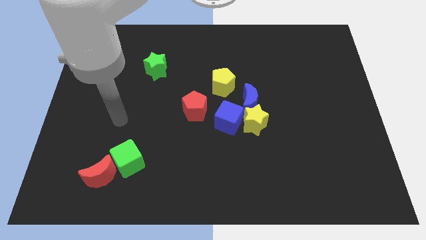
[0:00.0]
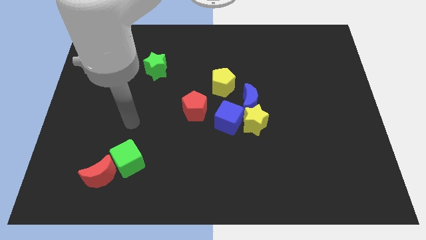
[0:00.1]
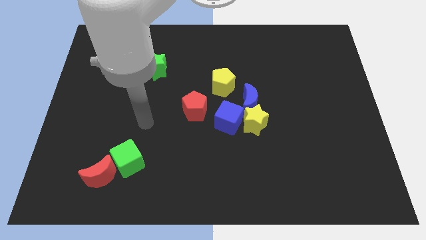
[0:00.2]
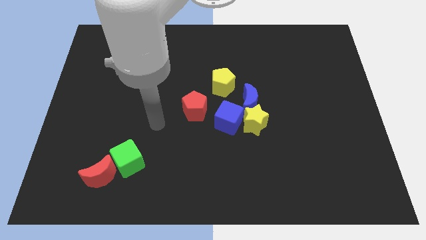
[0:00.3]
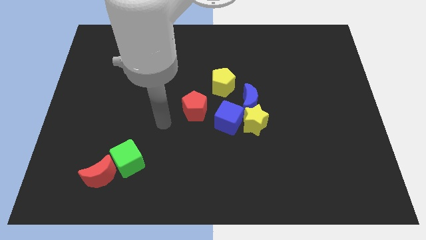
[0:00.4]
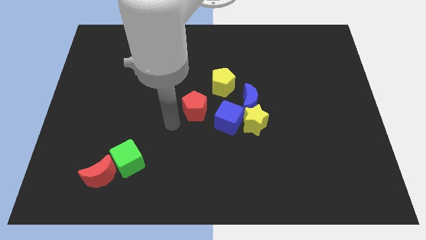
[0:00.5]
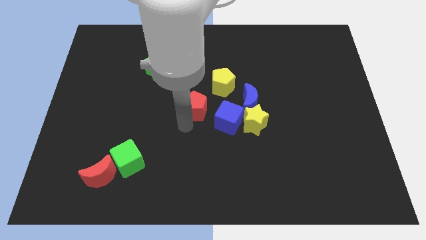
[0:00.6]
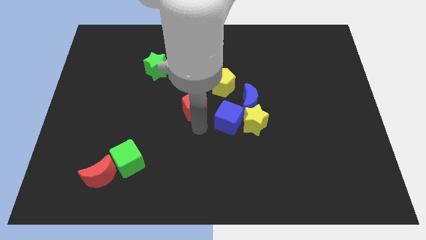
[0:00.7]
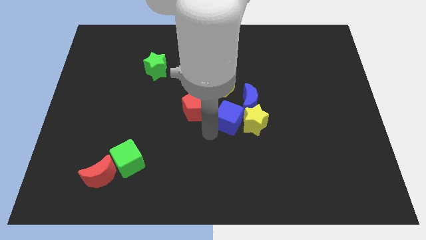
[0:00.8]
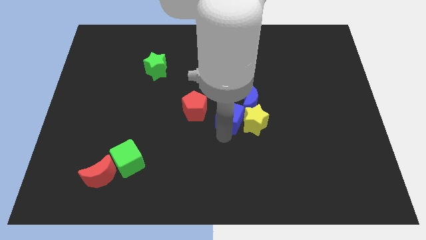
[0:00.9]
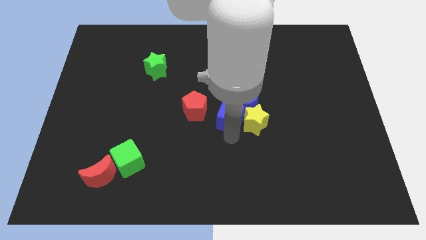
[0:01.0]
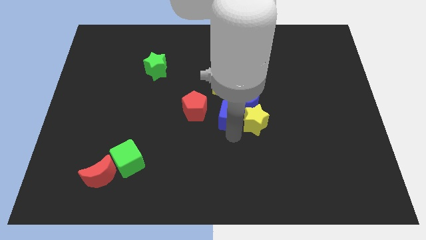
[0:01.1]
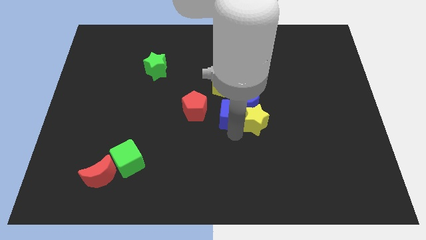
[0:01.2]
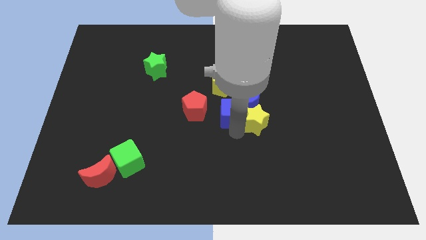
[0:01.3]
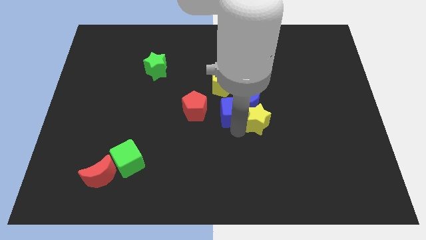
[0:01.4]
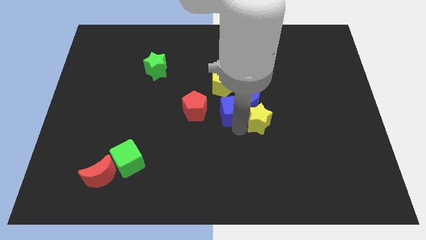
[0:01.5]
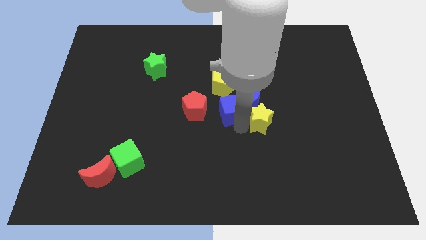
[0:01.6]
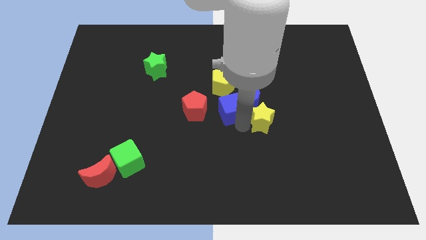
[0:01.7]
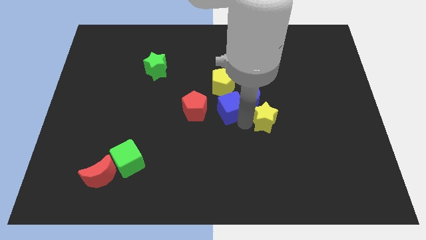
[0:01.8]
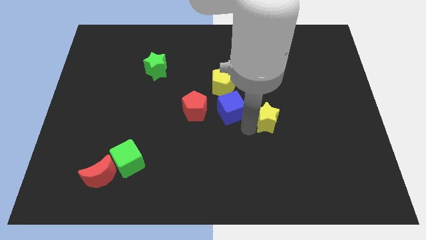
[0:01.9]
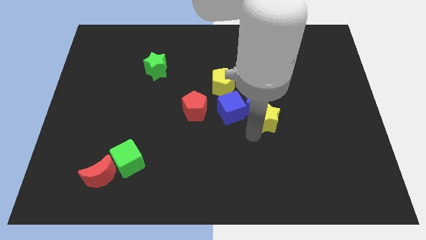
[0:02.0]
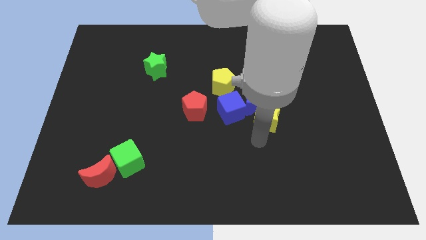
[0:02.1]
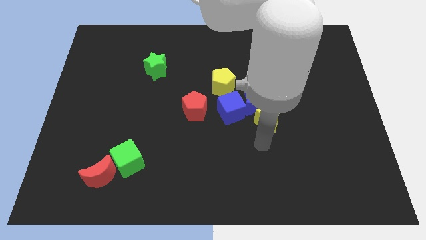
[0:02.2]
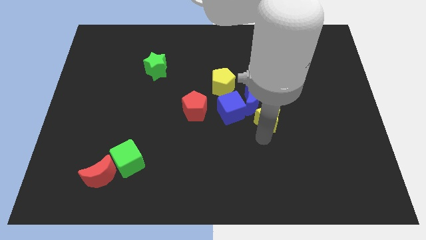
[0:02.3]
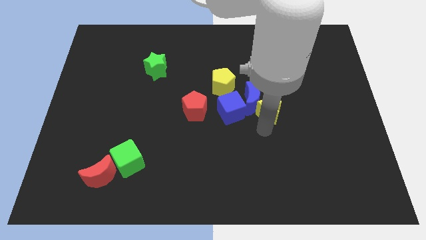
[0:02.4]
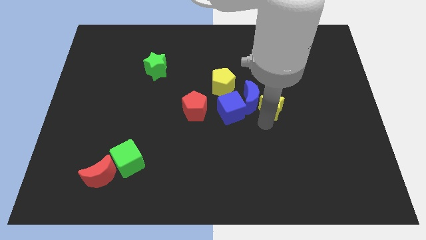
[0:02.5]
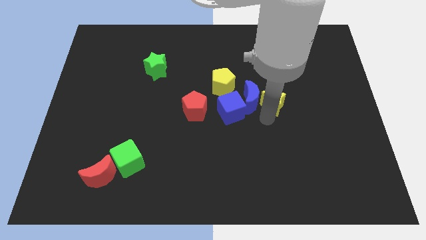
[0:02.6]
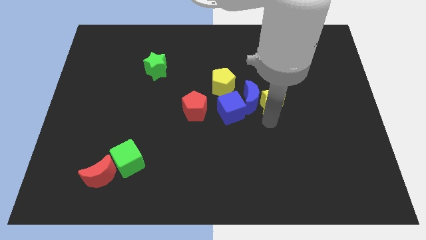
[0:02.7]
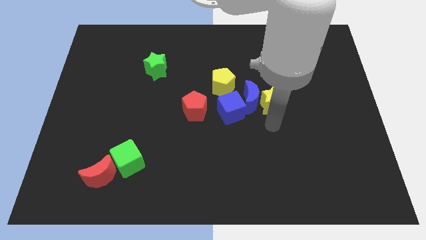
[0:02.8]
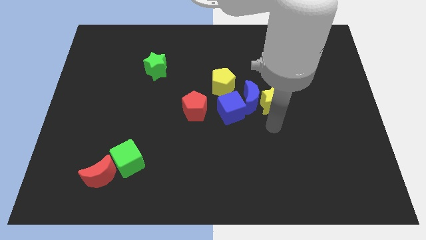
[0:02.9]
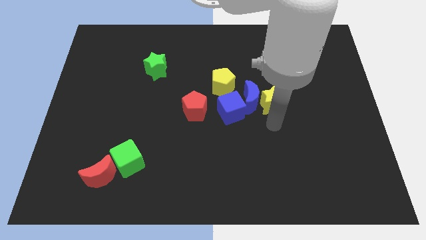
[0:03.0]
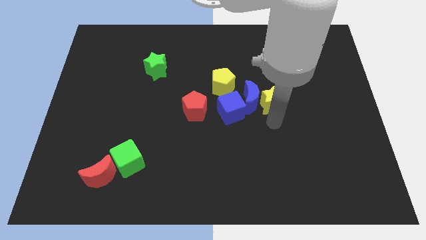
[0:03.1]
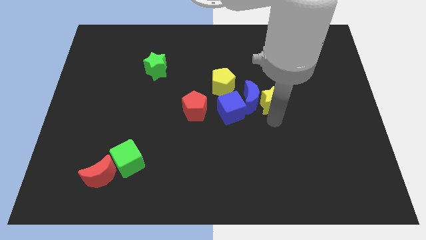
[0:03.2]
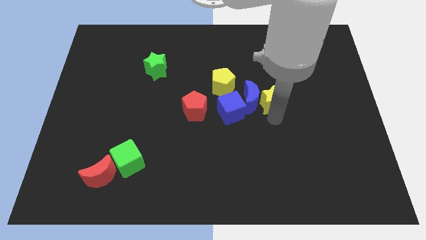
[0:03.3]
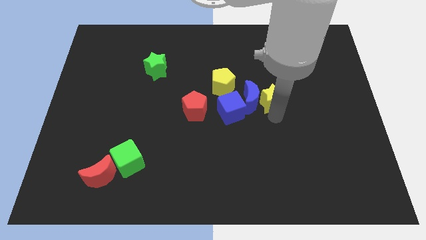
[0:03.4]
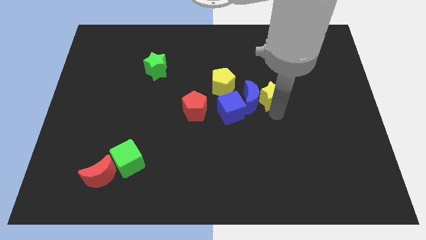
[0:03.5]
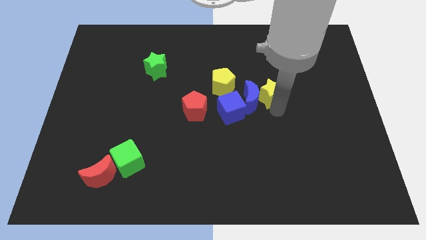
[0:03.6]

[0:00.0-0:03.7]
slightly move the yellow star upwards

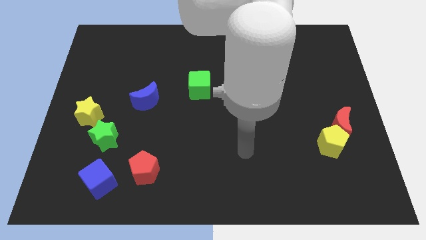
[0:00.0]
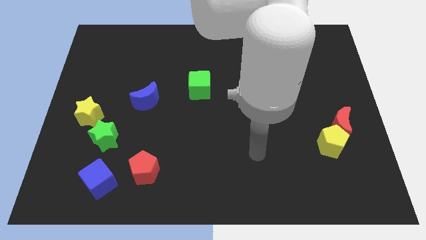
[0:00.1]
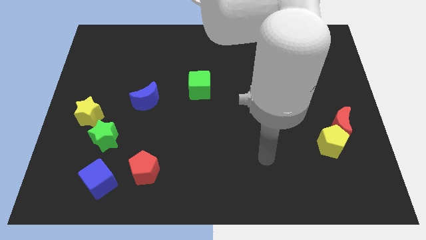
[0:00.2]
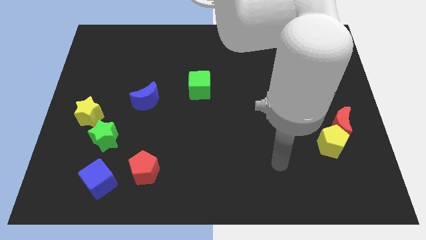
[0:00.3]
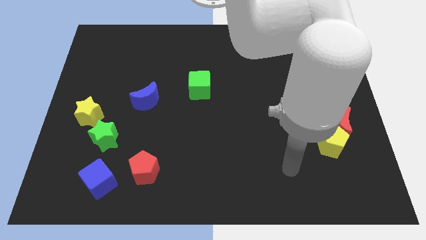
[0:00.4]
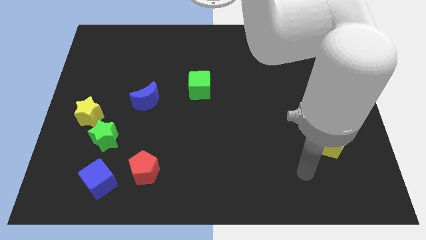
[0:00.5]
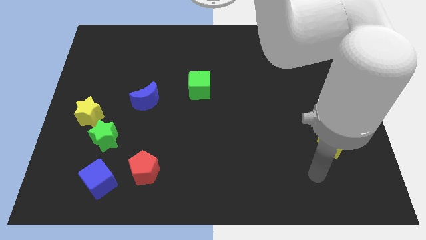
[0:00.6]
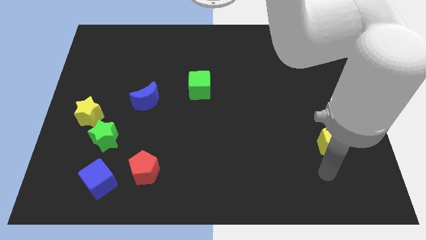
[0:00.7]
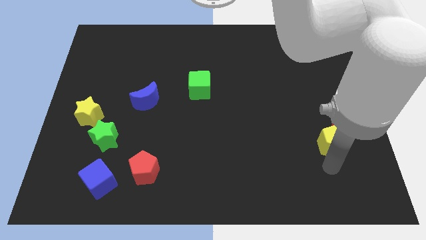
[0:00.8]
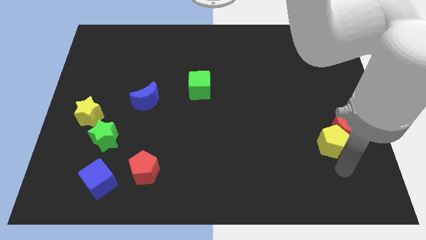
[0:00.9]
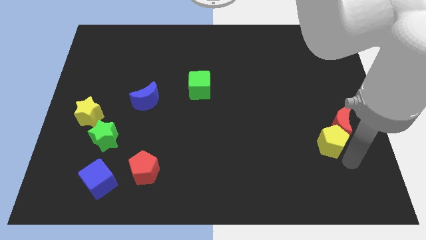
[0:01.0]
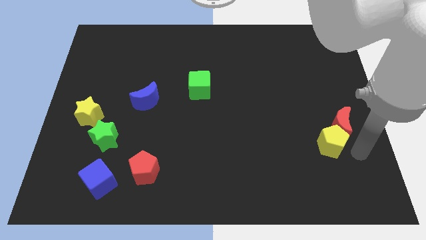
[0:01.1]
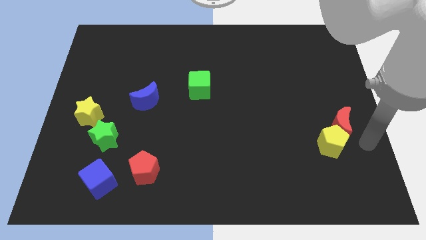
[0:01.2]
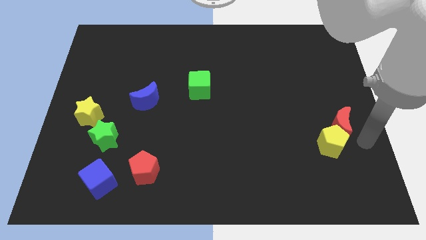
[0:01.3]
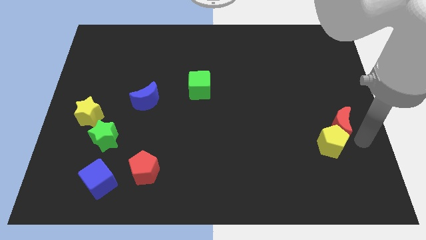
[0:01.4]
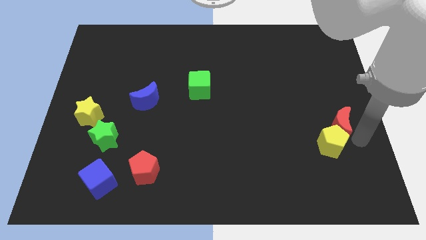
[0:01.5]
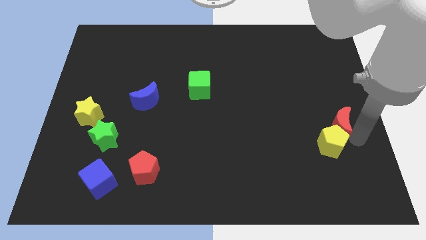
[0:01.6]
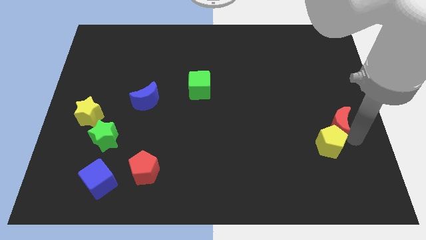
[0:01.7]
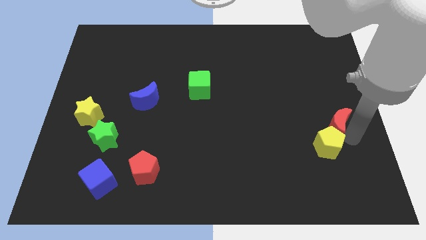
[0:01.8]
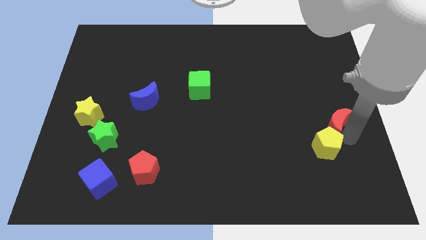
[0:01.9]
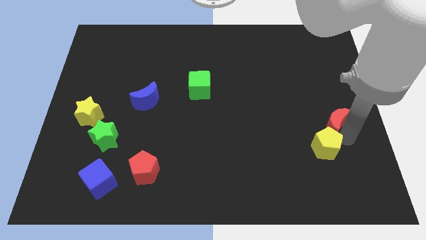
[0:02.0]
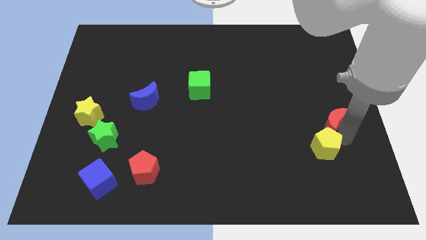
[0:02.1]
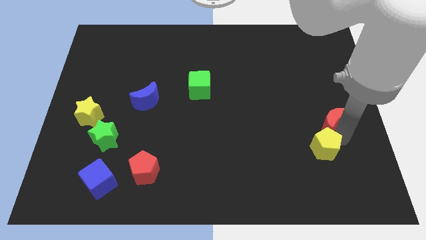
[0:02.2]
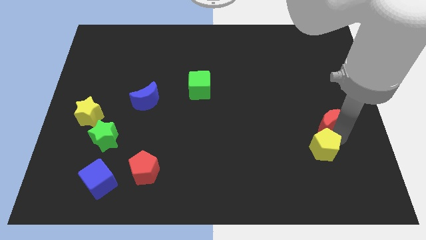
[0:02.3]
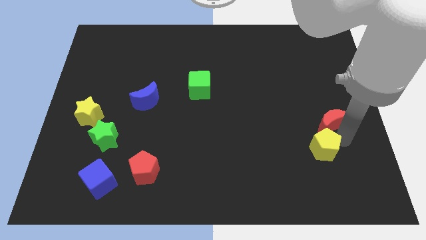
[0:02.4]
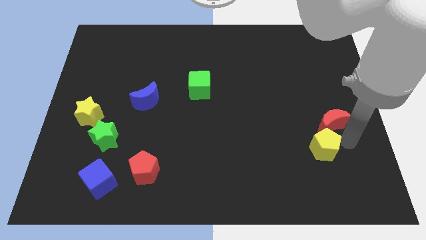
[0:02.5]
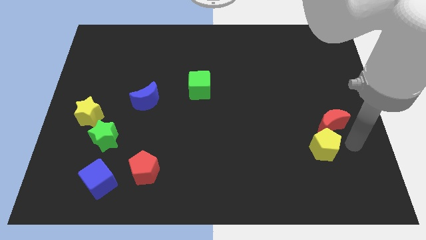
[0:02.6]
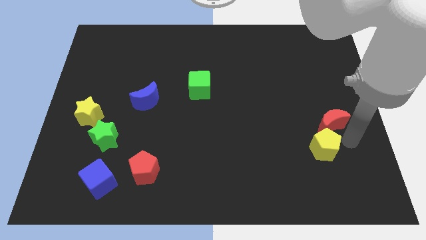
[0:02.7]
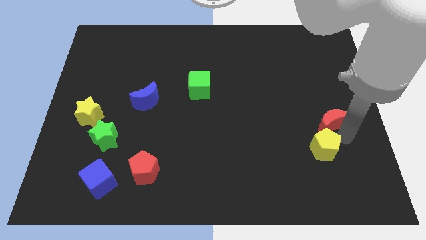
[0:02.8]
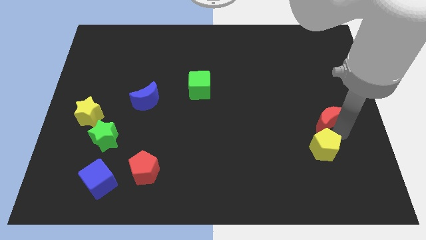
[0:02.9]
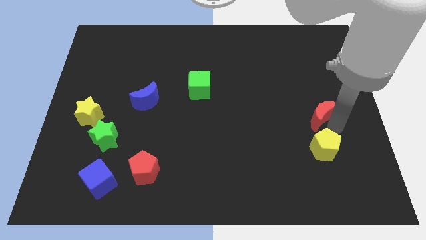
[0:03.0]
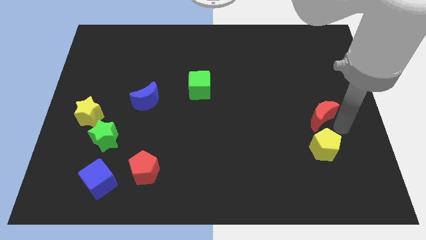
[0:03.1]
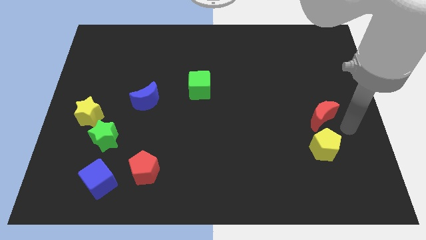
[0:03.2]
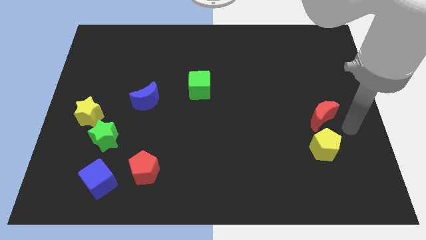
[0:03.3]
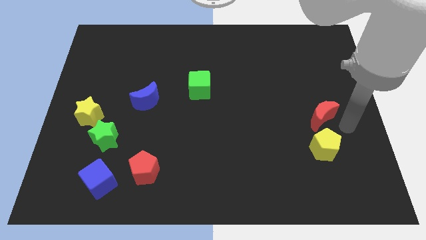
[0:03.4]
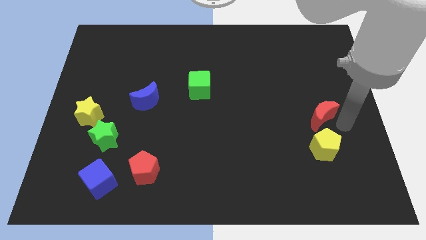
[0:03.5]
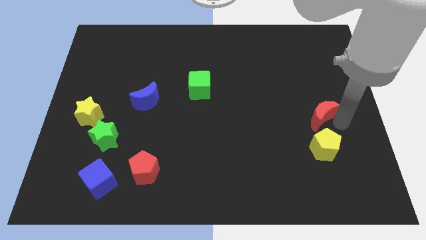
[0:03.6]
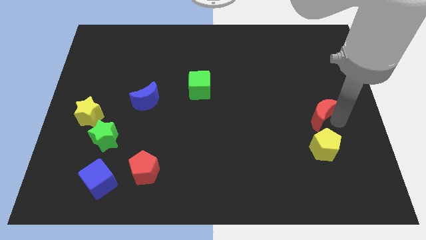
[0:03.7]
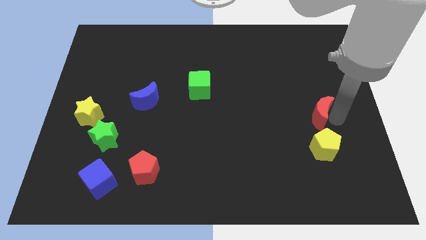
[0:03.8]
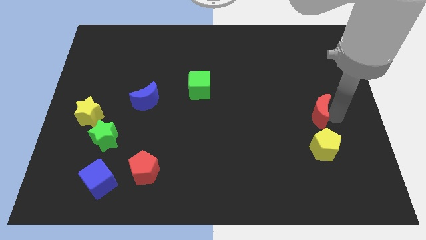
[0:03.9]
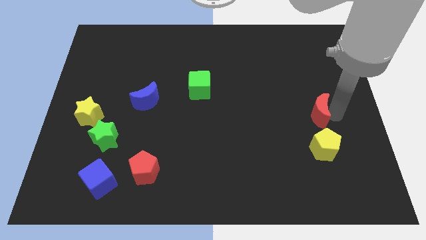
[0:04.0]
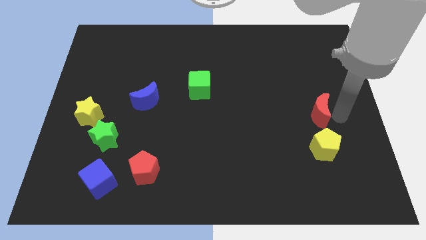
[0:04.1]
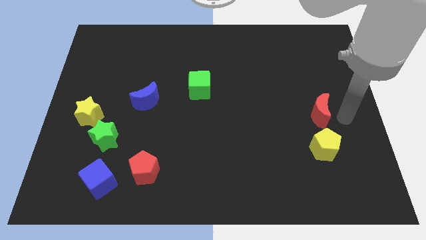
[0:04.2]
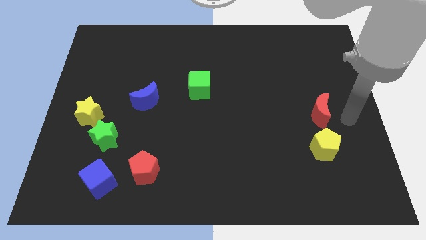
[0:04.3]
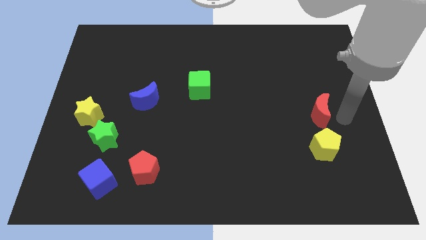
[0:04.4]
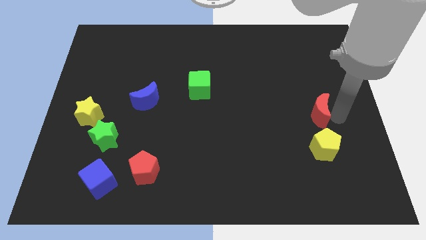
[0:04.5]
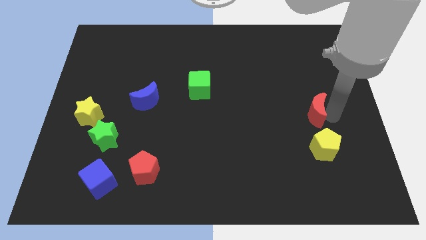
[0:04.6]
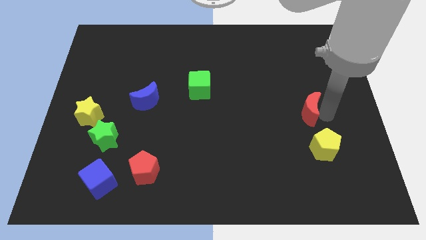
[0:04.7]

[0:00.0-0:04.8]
slide the red moon a bit upwards and then to the left
